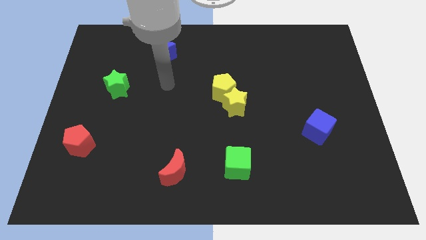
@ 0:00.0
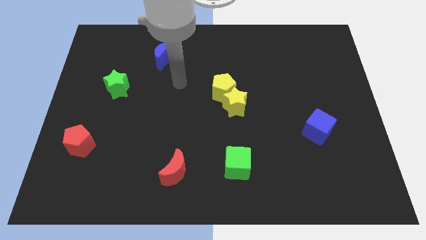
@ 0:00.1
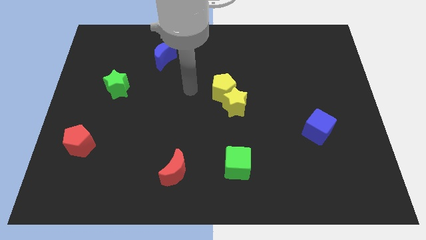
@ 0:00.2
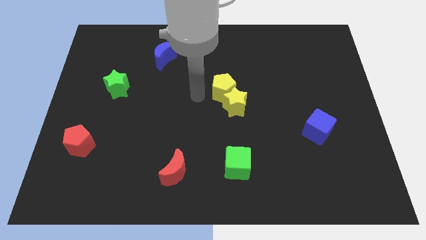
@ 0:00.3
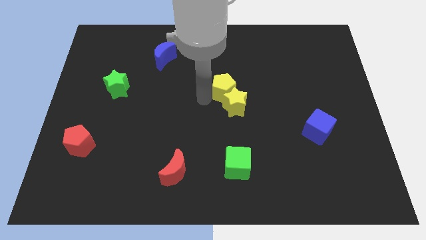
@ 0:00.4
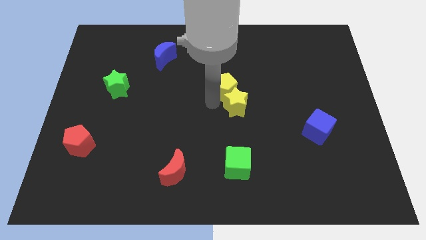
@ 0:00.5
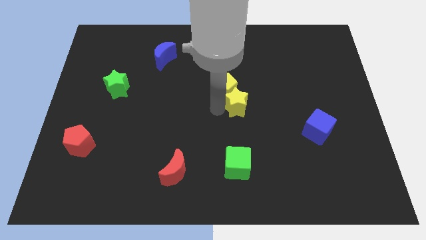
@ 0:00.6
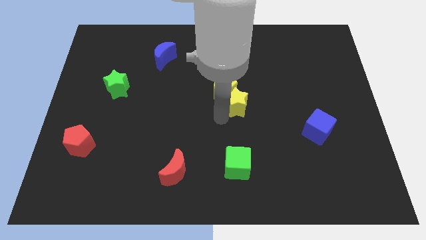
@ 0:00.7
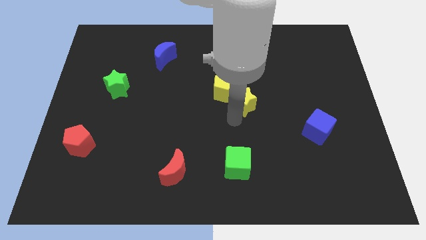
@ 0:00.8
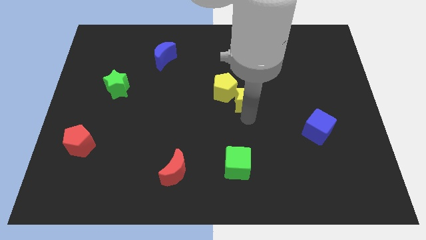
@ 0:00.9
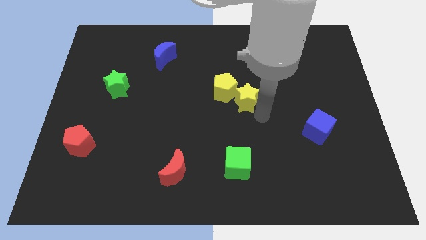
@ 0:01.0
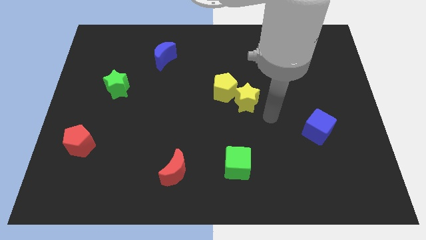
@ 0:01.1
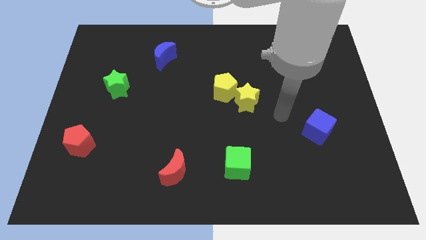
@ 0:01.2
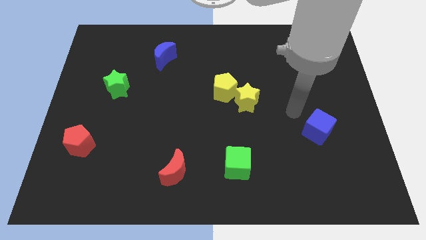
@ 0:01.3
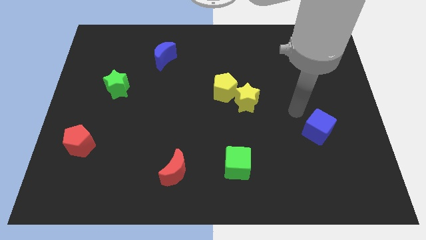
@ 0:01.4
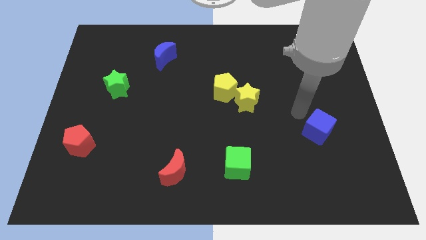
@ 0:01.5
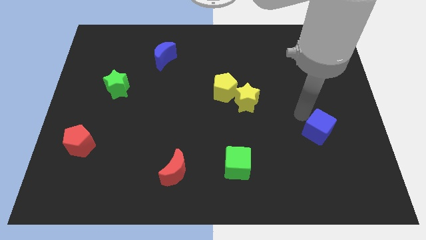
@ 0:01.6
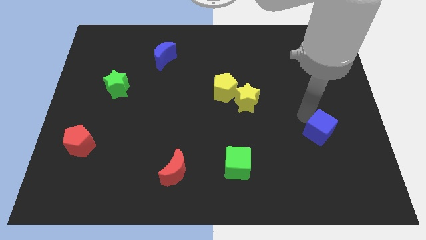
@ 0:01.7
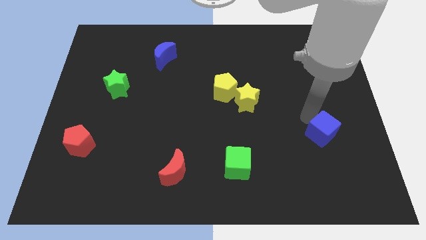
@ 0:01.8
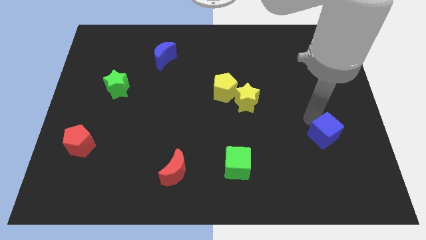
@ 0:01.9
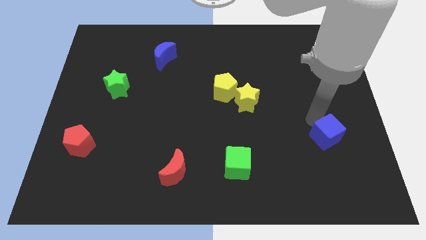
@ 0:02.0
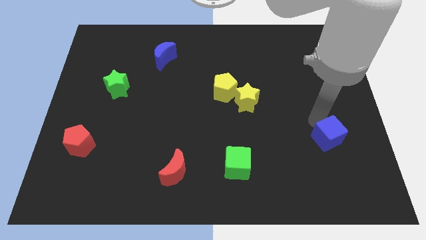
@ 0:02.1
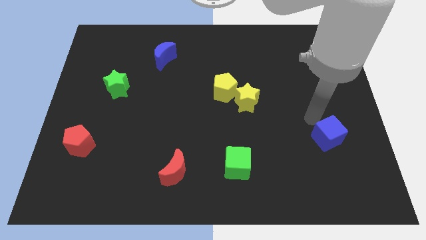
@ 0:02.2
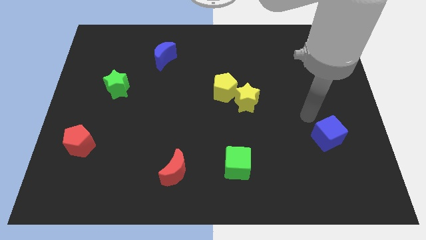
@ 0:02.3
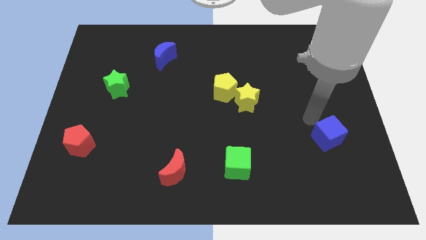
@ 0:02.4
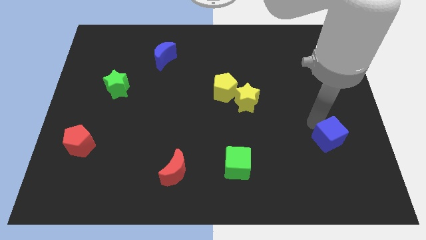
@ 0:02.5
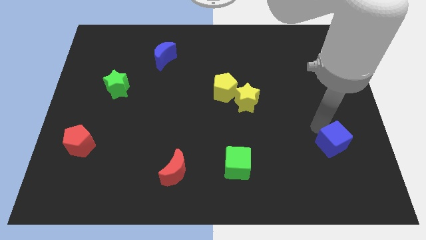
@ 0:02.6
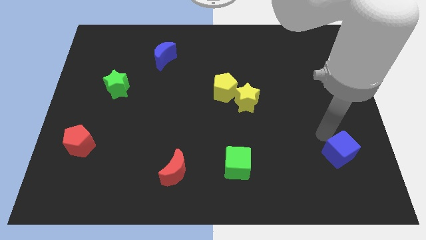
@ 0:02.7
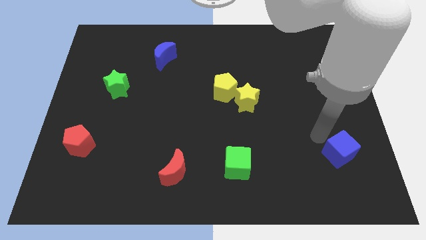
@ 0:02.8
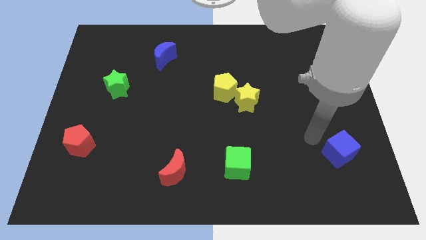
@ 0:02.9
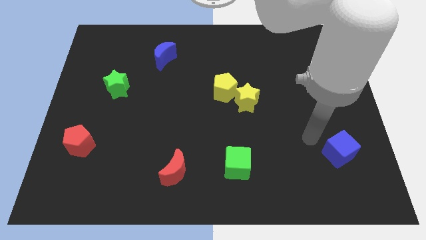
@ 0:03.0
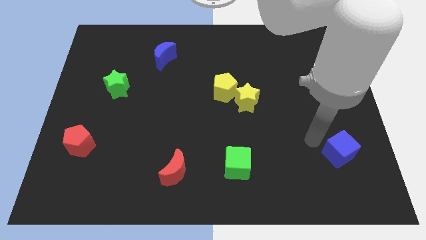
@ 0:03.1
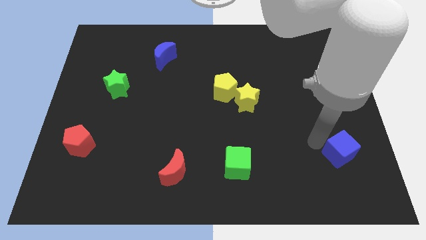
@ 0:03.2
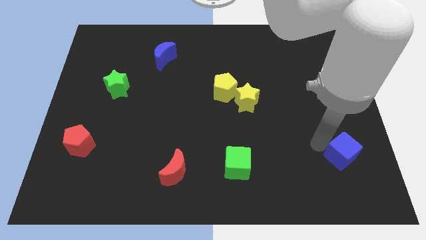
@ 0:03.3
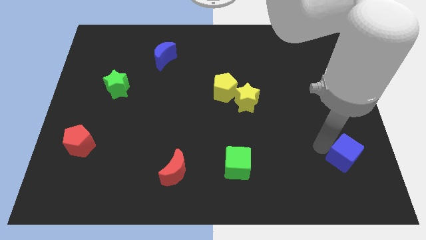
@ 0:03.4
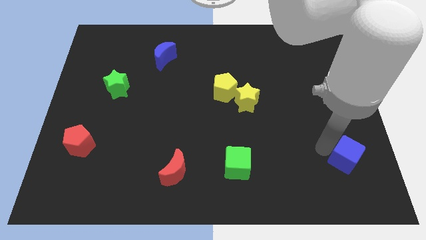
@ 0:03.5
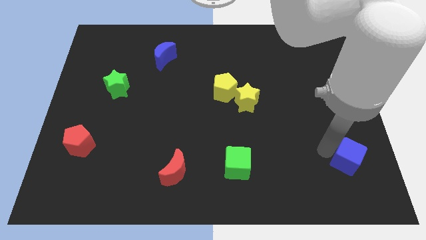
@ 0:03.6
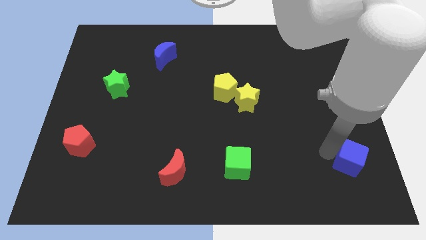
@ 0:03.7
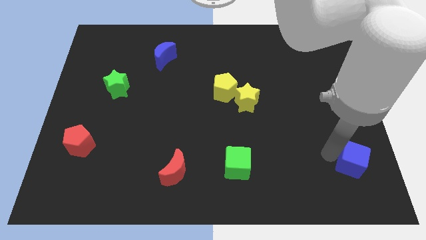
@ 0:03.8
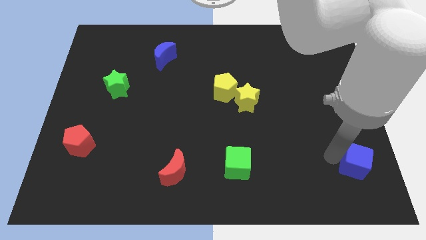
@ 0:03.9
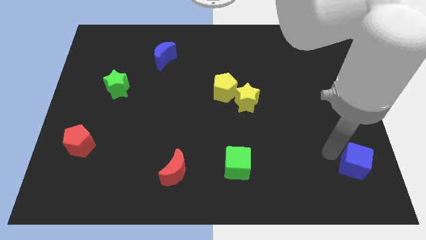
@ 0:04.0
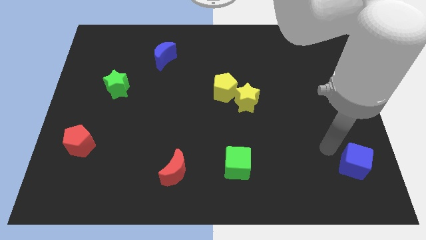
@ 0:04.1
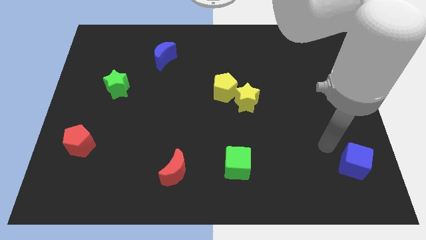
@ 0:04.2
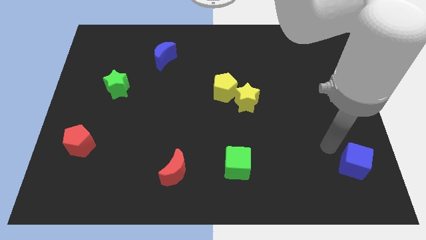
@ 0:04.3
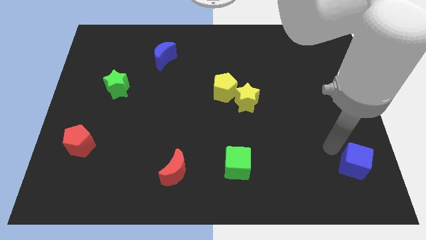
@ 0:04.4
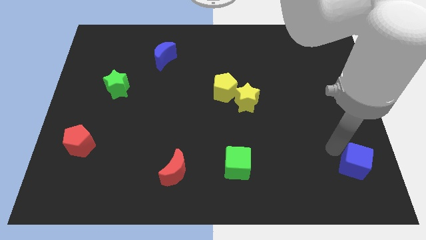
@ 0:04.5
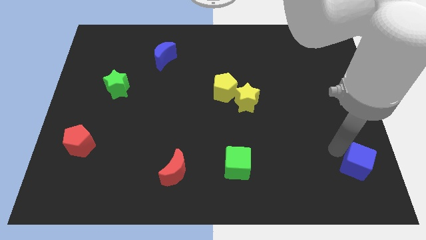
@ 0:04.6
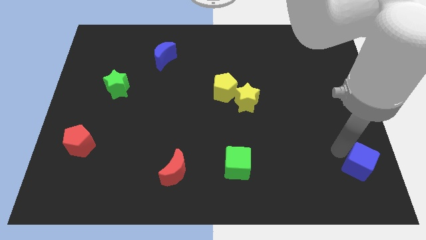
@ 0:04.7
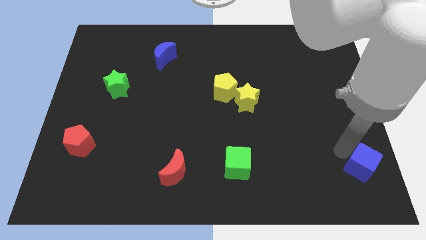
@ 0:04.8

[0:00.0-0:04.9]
move the blue cube to the bottom right

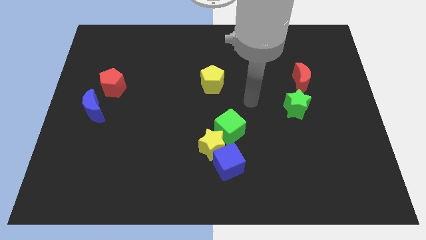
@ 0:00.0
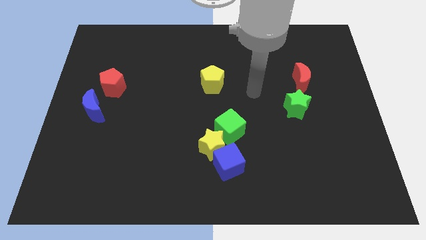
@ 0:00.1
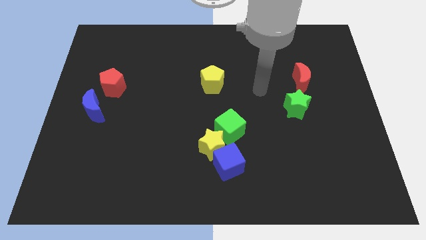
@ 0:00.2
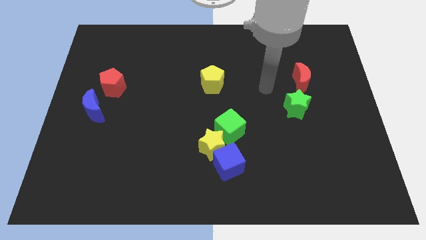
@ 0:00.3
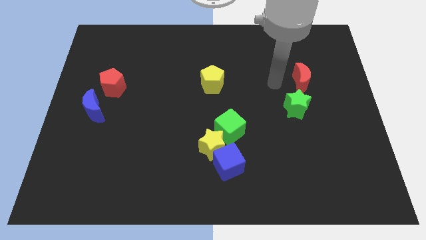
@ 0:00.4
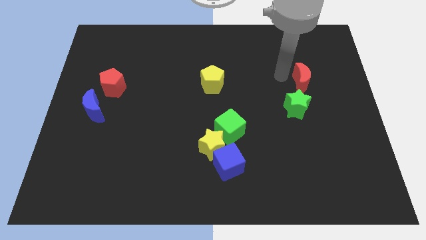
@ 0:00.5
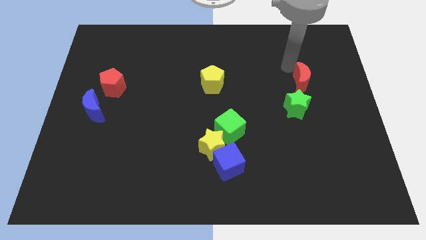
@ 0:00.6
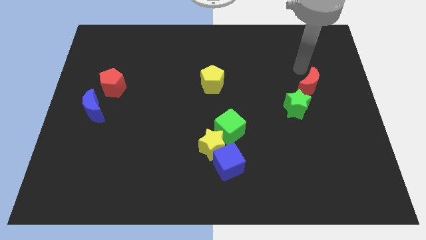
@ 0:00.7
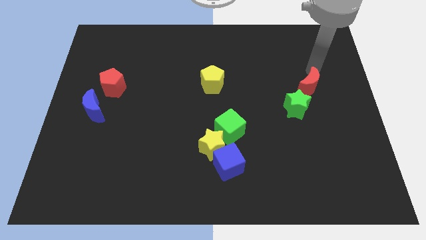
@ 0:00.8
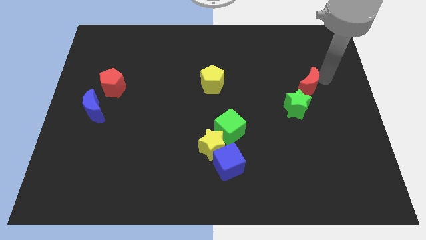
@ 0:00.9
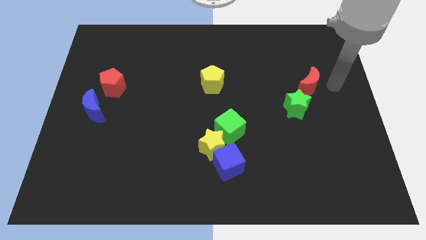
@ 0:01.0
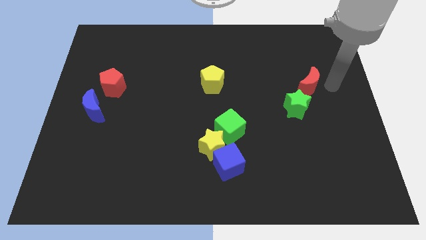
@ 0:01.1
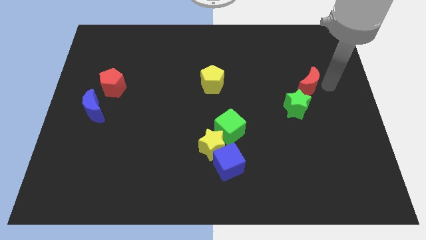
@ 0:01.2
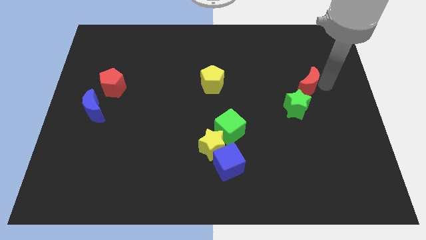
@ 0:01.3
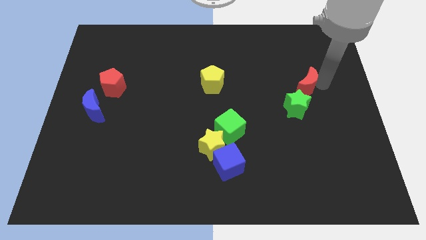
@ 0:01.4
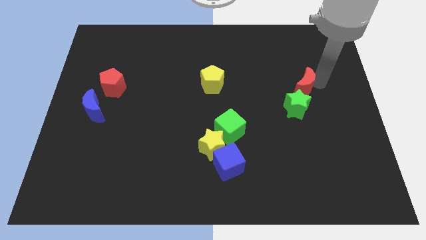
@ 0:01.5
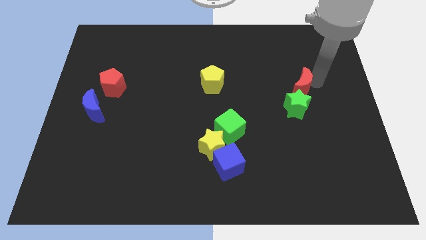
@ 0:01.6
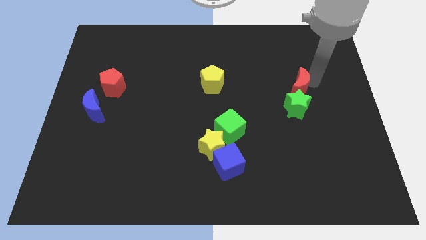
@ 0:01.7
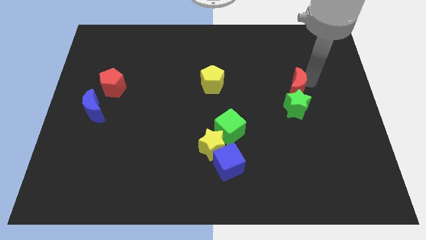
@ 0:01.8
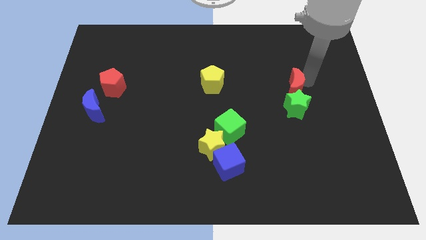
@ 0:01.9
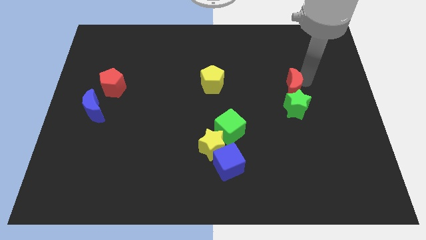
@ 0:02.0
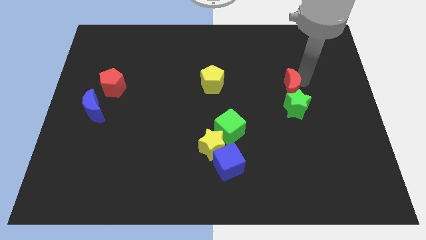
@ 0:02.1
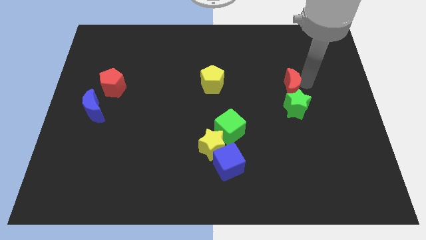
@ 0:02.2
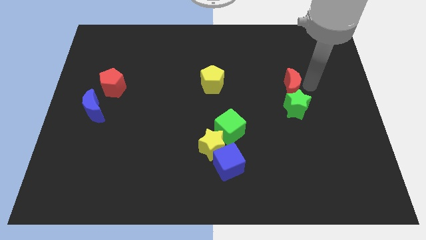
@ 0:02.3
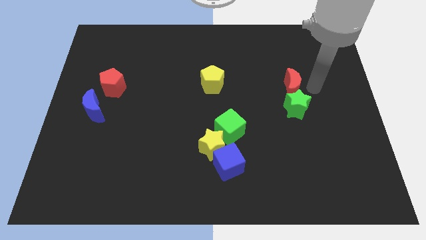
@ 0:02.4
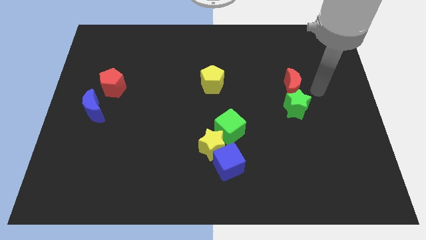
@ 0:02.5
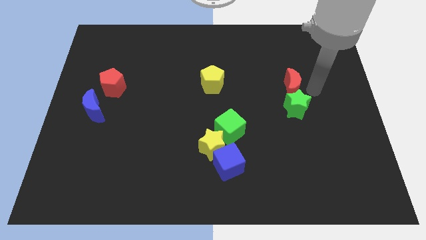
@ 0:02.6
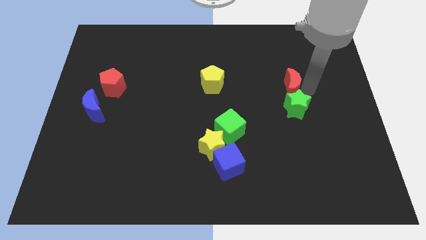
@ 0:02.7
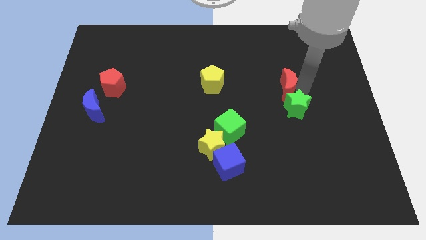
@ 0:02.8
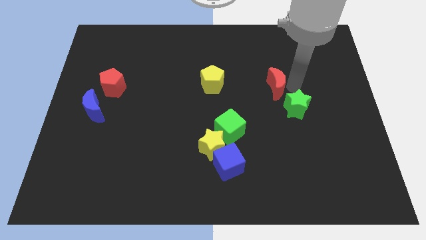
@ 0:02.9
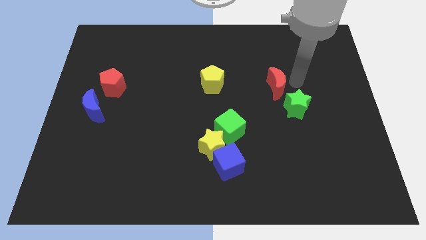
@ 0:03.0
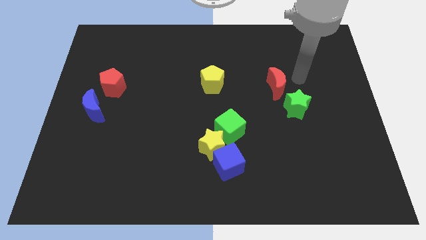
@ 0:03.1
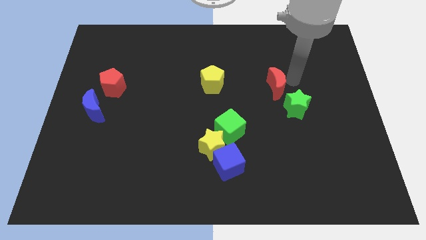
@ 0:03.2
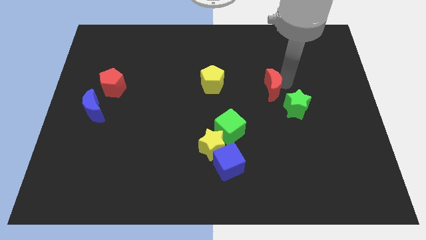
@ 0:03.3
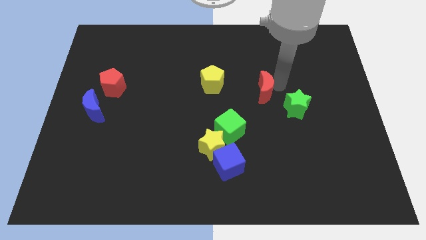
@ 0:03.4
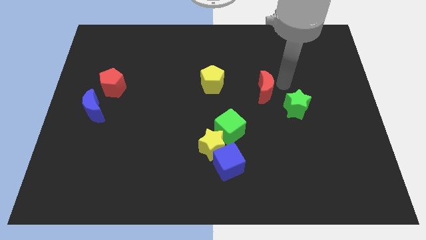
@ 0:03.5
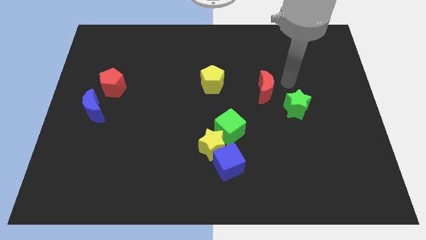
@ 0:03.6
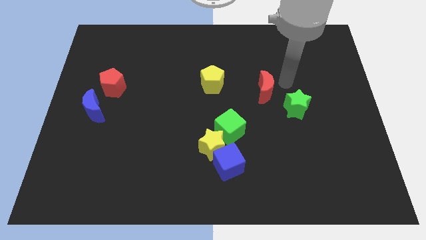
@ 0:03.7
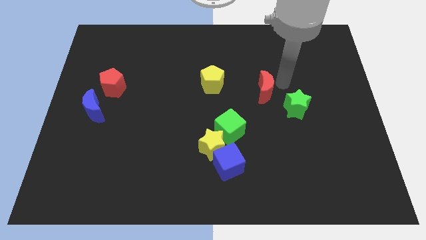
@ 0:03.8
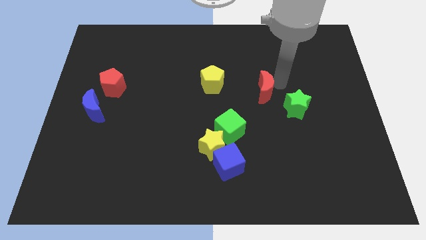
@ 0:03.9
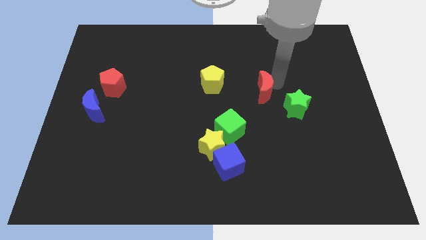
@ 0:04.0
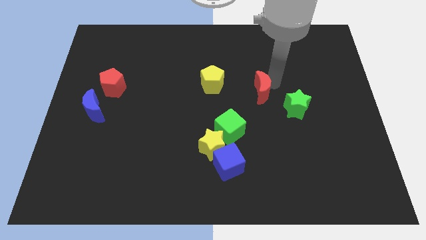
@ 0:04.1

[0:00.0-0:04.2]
slide the red moon to the center
